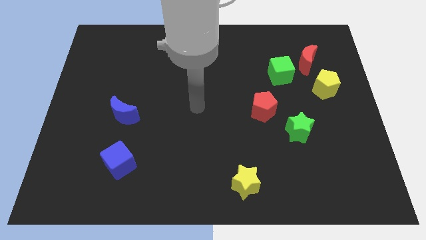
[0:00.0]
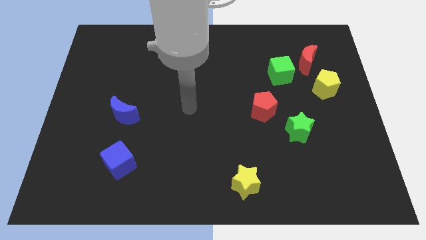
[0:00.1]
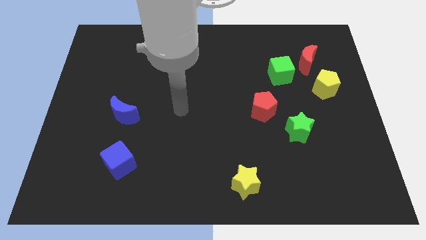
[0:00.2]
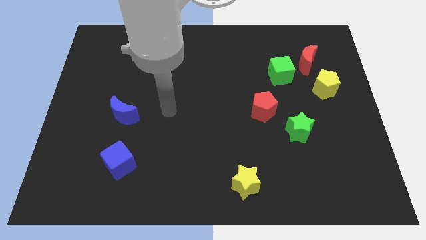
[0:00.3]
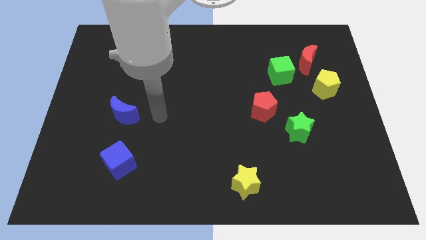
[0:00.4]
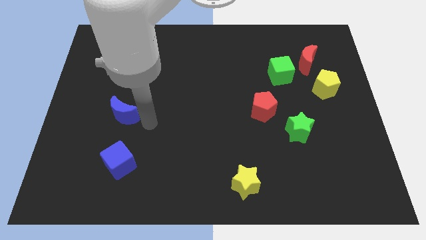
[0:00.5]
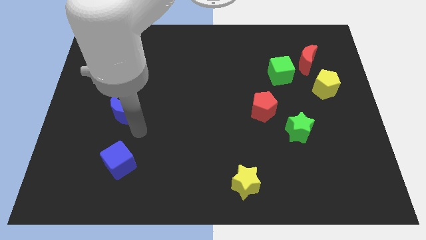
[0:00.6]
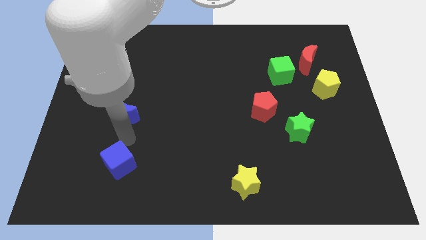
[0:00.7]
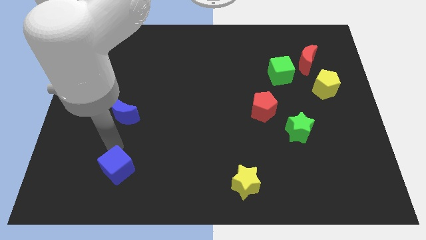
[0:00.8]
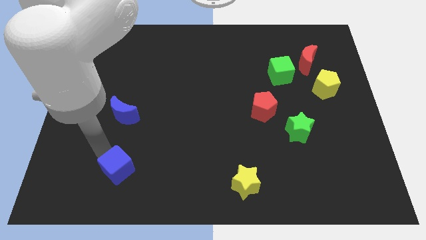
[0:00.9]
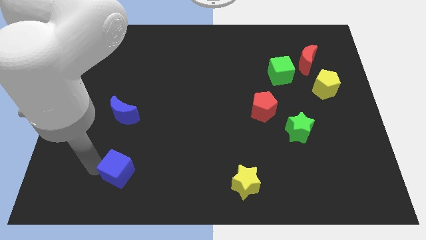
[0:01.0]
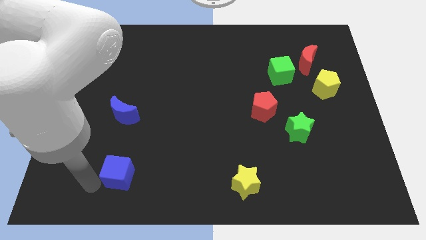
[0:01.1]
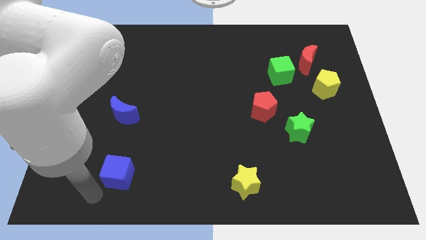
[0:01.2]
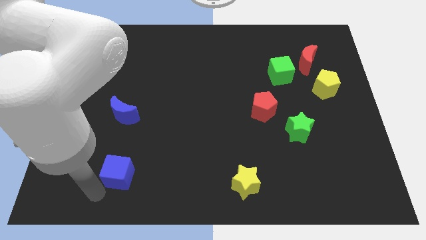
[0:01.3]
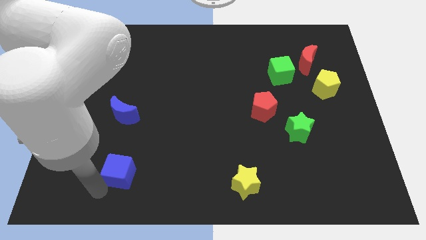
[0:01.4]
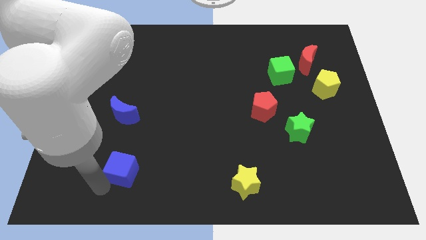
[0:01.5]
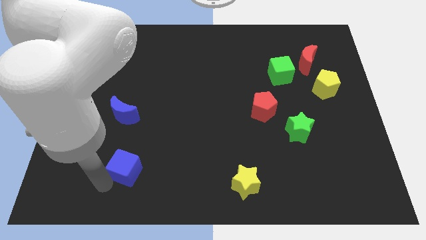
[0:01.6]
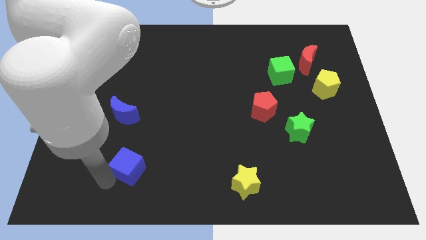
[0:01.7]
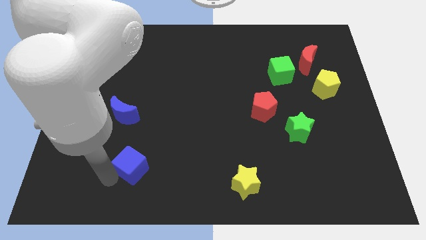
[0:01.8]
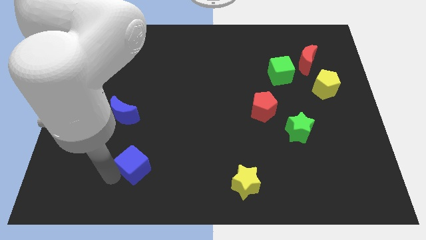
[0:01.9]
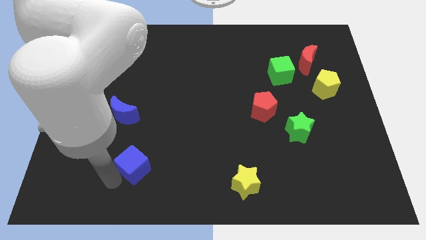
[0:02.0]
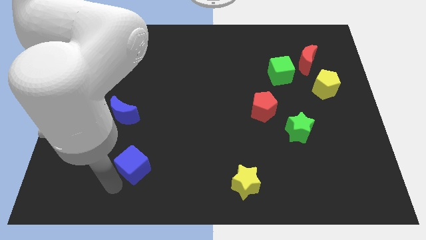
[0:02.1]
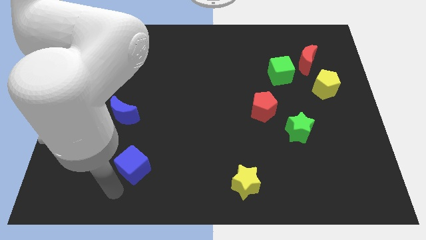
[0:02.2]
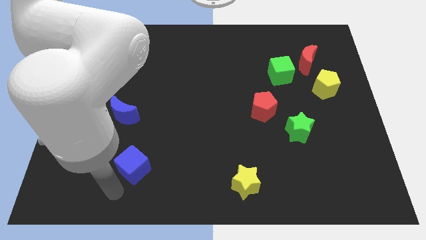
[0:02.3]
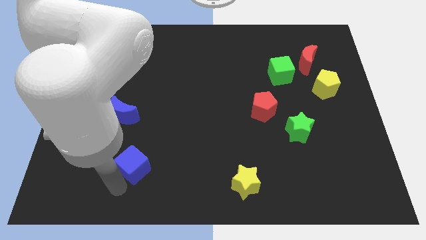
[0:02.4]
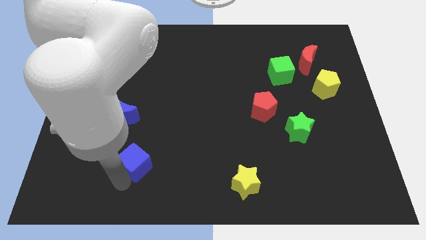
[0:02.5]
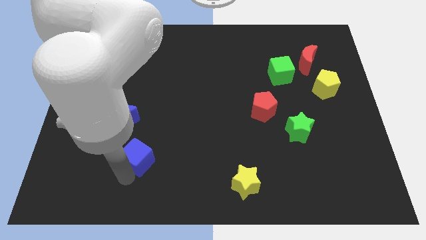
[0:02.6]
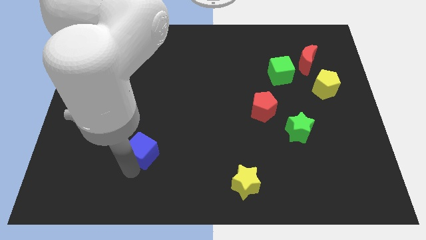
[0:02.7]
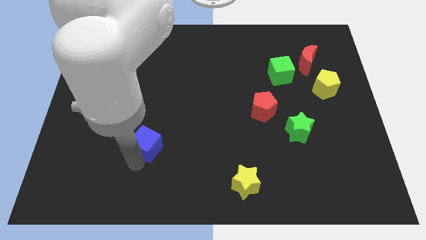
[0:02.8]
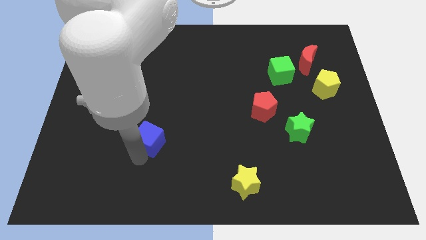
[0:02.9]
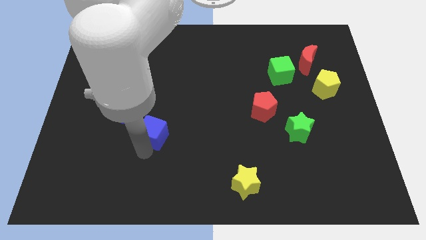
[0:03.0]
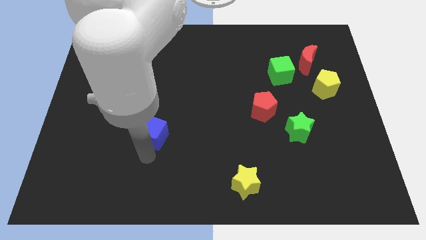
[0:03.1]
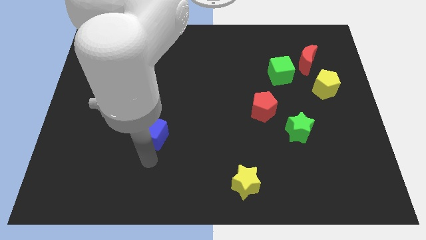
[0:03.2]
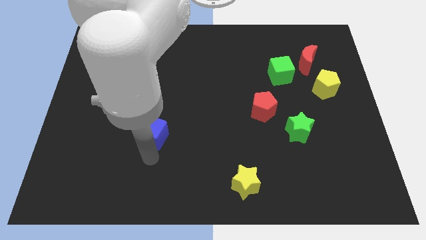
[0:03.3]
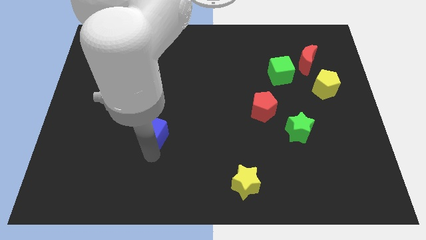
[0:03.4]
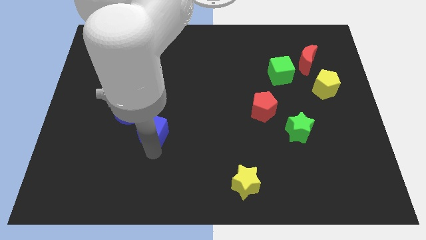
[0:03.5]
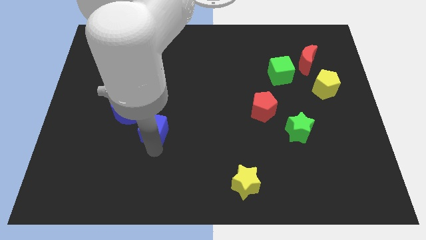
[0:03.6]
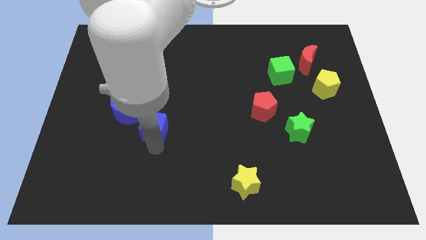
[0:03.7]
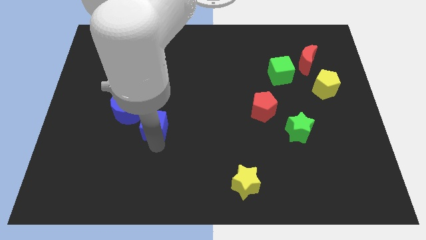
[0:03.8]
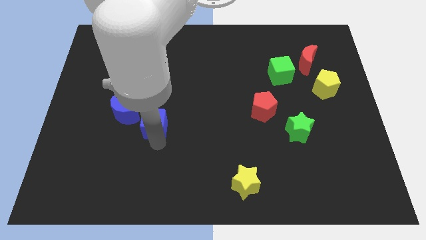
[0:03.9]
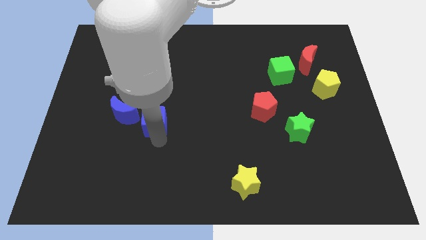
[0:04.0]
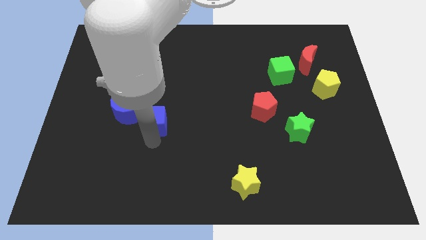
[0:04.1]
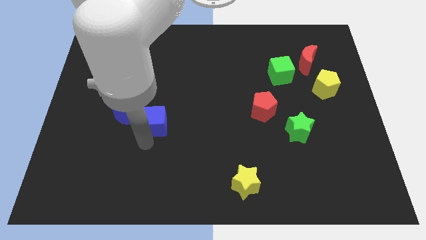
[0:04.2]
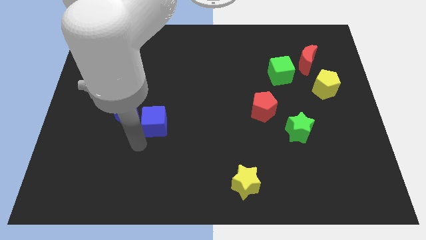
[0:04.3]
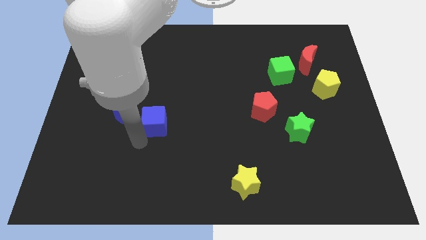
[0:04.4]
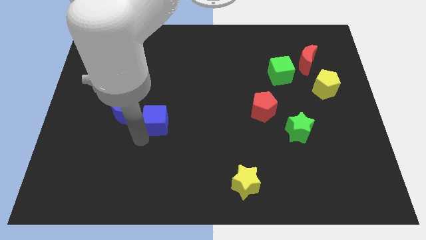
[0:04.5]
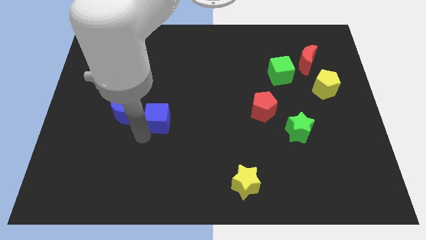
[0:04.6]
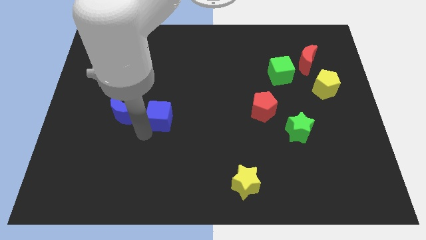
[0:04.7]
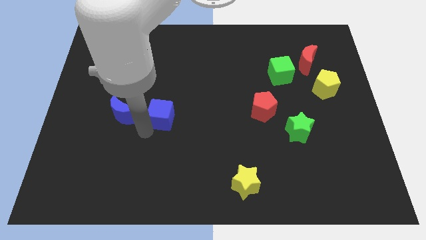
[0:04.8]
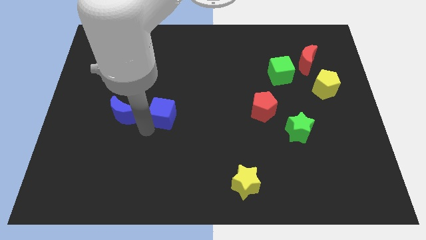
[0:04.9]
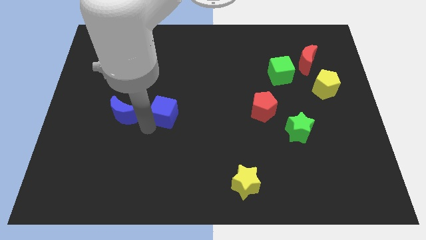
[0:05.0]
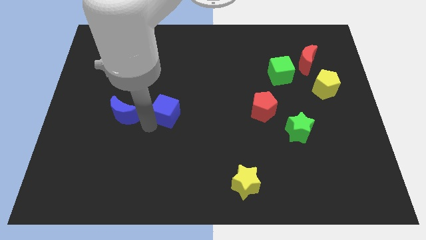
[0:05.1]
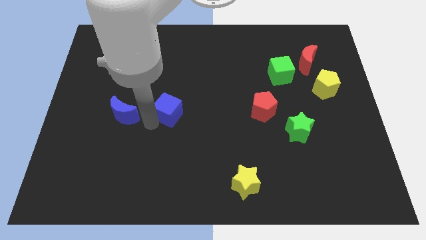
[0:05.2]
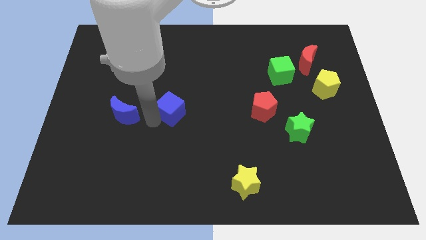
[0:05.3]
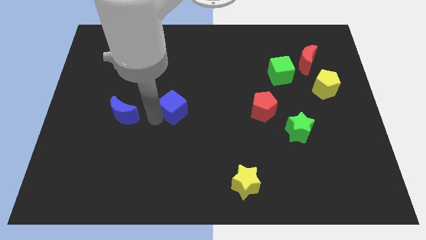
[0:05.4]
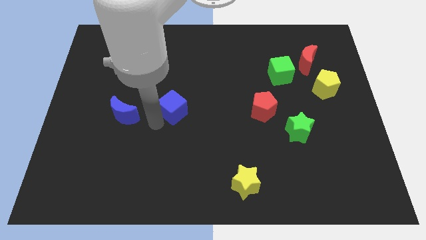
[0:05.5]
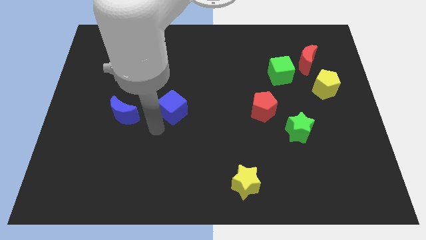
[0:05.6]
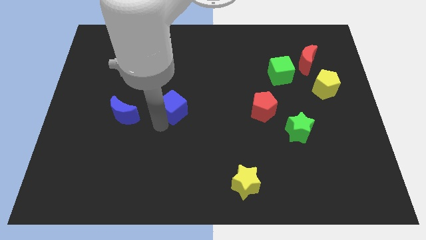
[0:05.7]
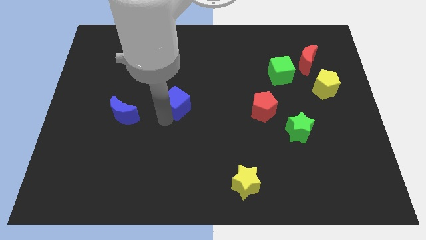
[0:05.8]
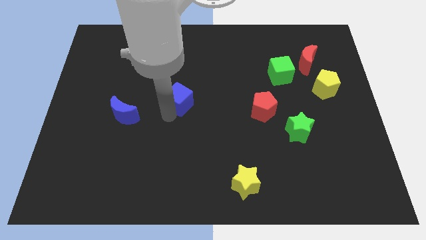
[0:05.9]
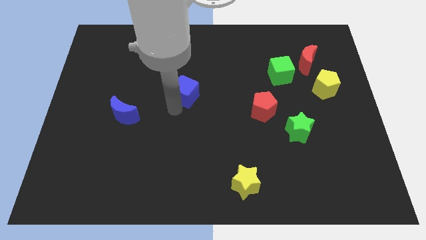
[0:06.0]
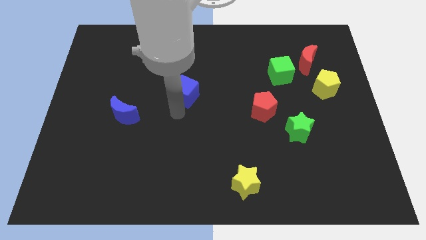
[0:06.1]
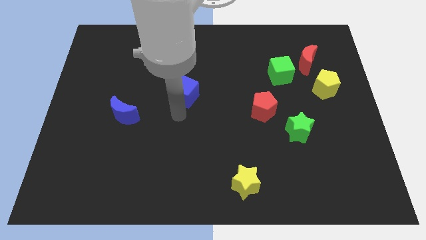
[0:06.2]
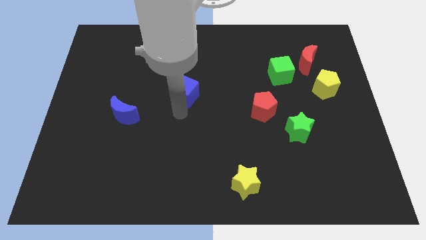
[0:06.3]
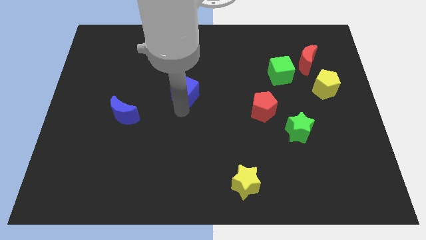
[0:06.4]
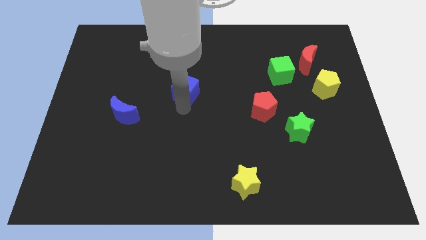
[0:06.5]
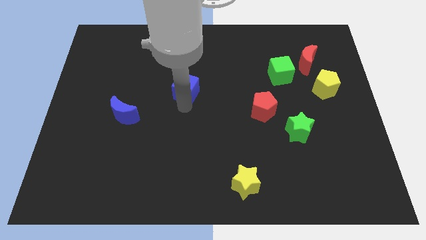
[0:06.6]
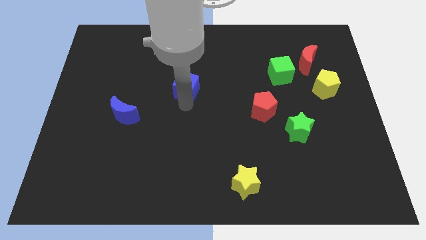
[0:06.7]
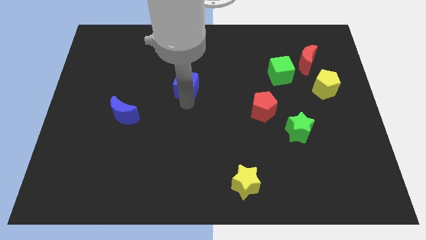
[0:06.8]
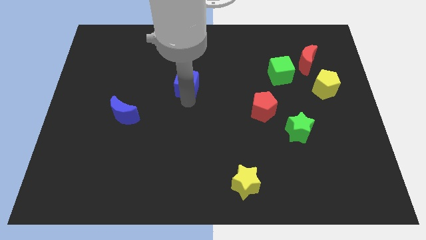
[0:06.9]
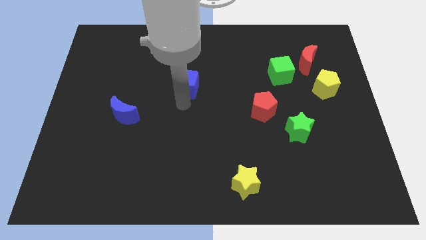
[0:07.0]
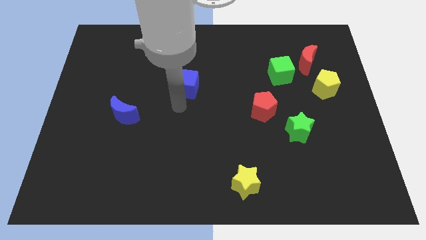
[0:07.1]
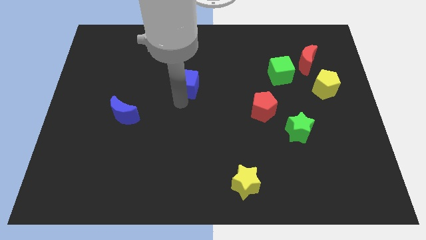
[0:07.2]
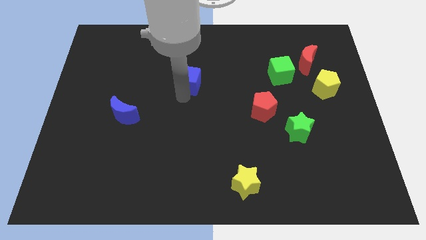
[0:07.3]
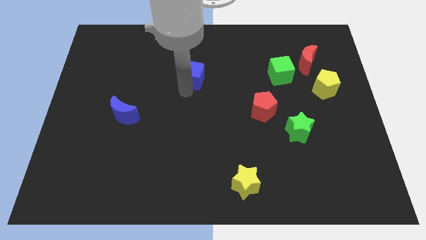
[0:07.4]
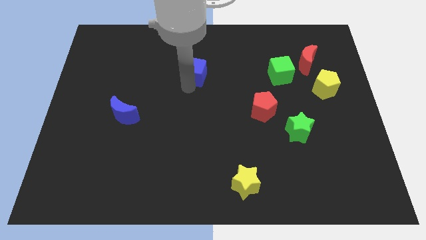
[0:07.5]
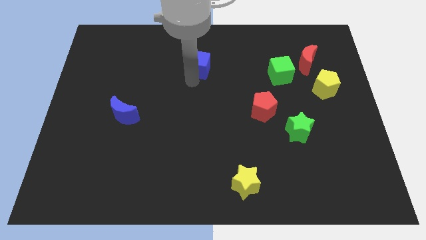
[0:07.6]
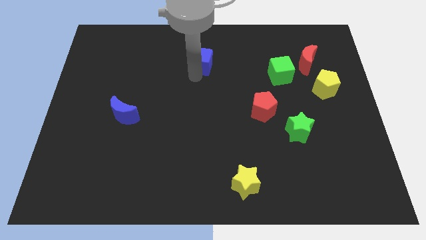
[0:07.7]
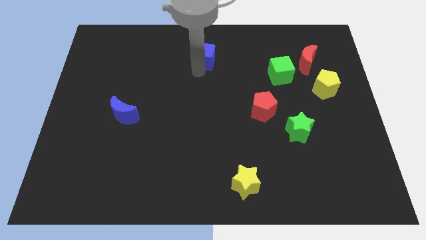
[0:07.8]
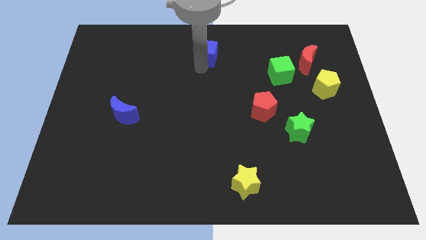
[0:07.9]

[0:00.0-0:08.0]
move the blue cube to the top
